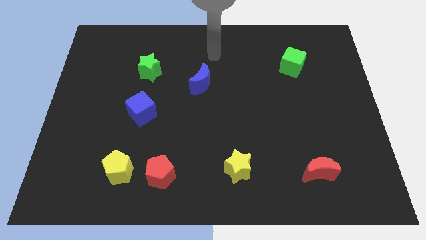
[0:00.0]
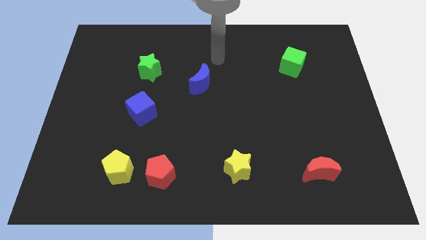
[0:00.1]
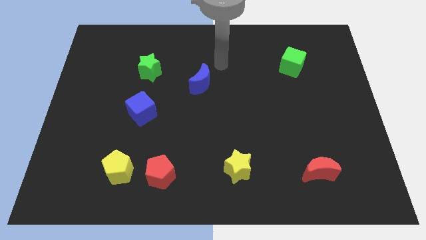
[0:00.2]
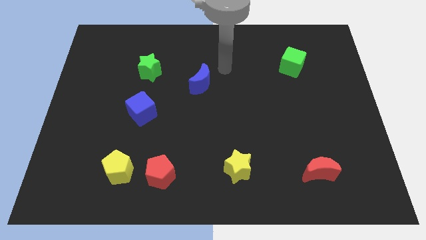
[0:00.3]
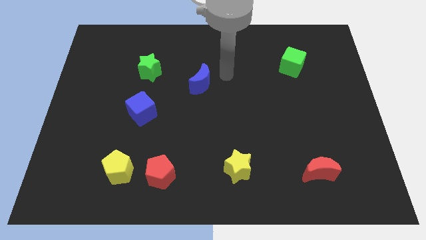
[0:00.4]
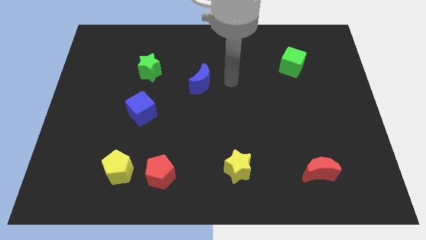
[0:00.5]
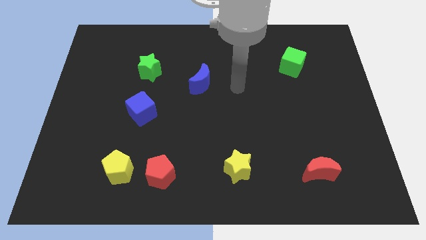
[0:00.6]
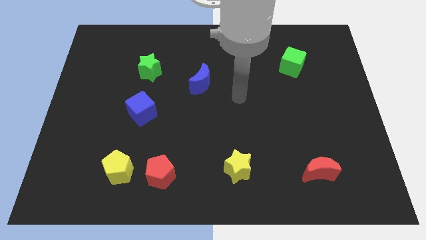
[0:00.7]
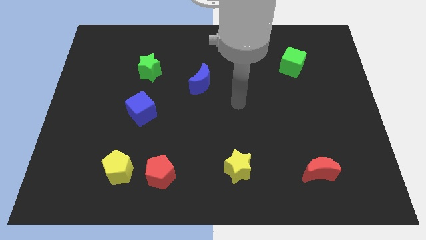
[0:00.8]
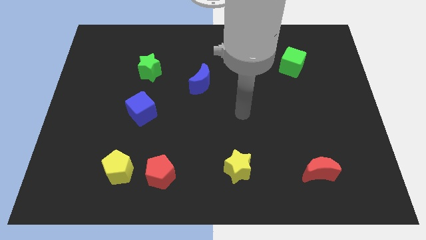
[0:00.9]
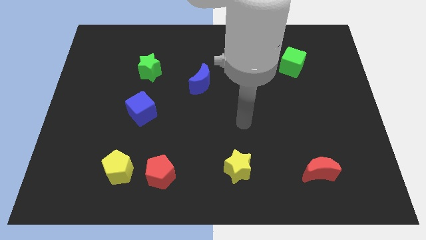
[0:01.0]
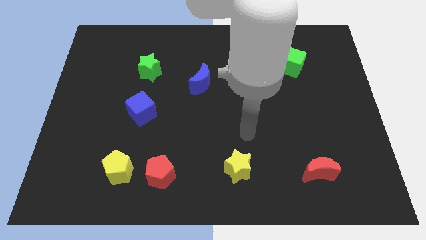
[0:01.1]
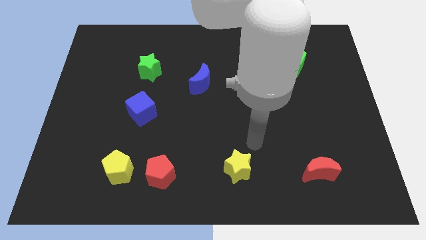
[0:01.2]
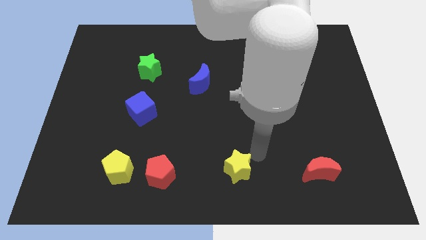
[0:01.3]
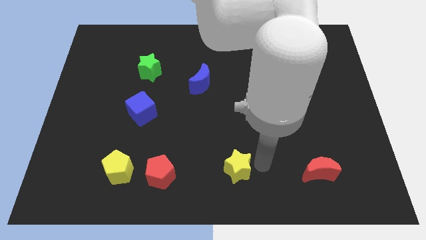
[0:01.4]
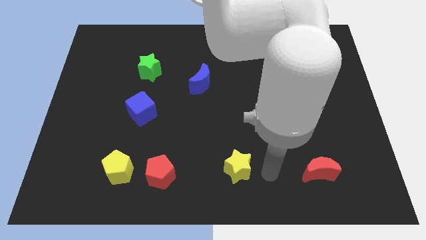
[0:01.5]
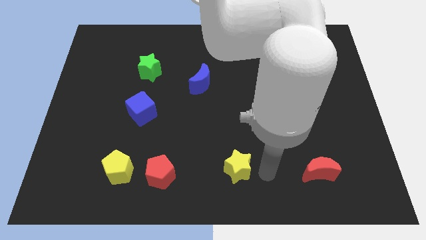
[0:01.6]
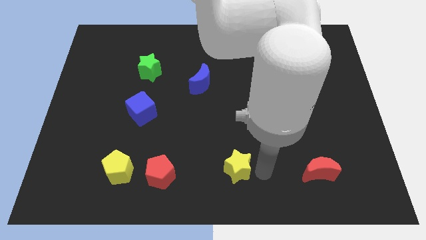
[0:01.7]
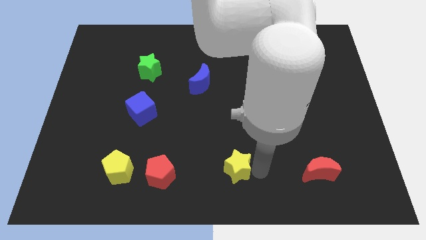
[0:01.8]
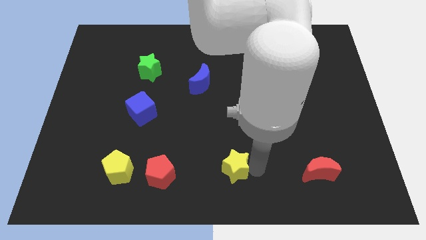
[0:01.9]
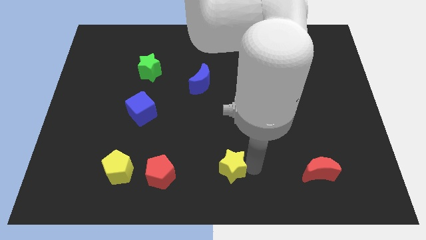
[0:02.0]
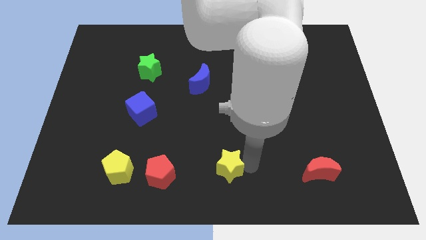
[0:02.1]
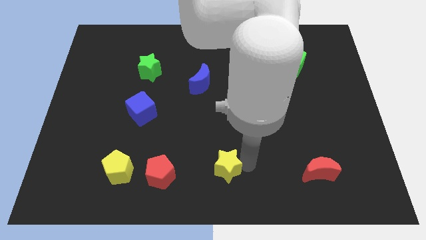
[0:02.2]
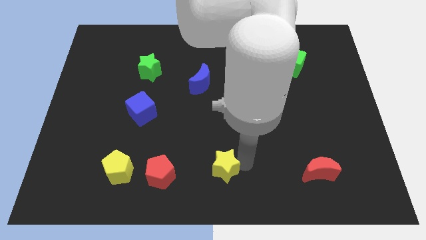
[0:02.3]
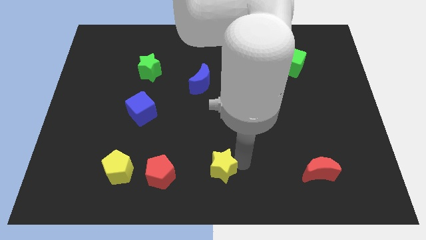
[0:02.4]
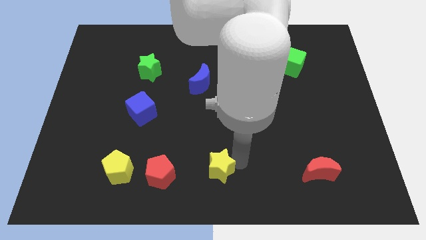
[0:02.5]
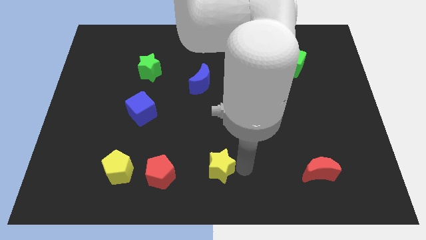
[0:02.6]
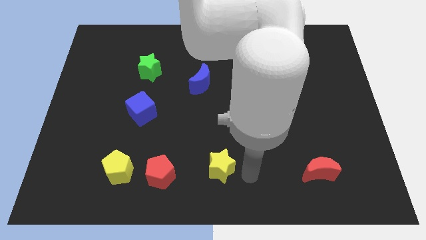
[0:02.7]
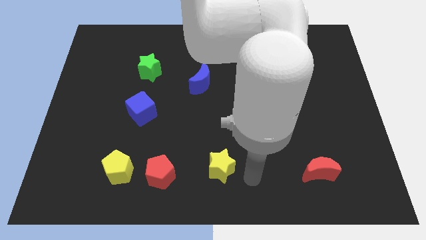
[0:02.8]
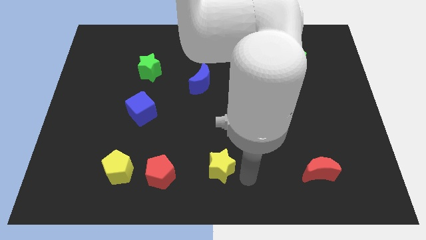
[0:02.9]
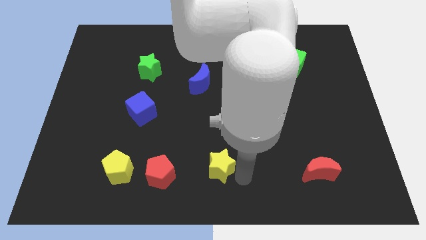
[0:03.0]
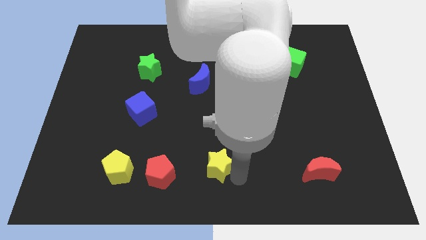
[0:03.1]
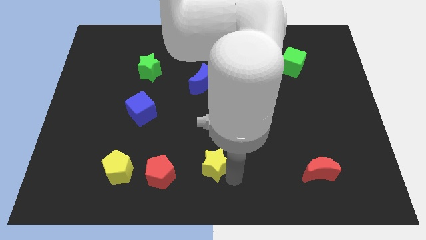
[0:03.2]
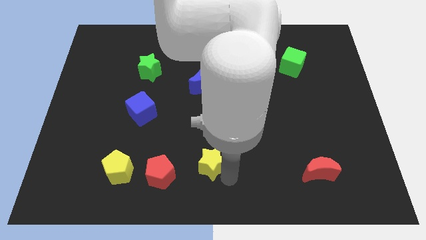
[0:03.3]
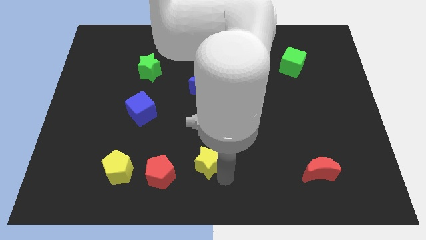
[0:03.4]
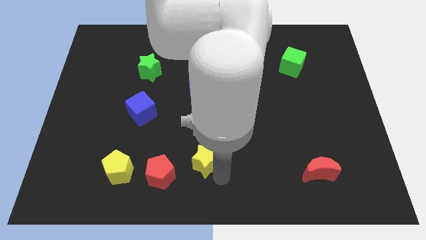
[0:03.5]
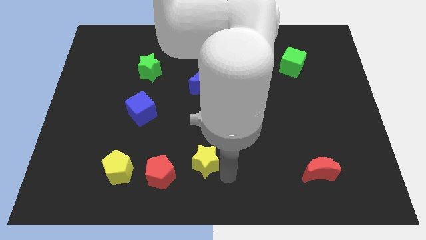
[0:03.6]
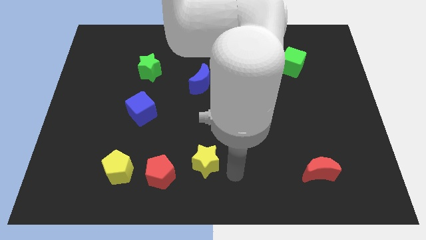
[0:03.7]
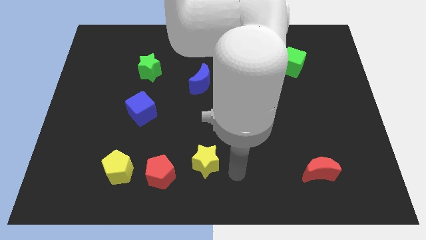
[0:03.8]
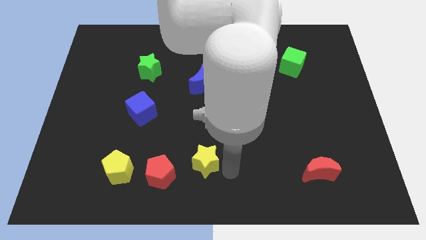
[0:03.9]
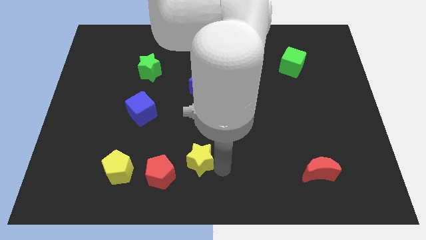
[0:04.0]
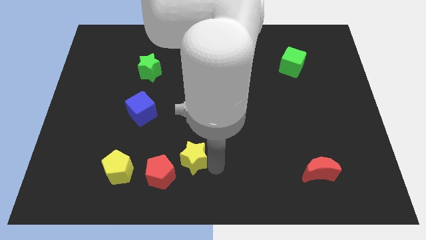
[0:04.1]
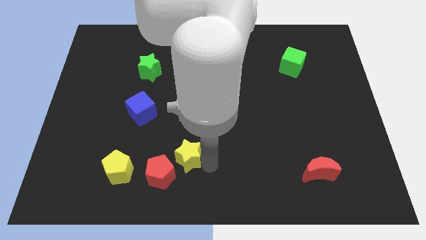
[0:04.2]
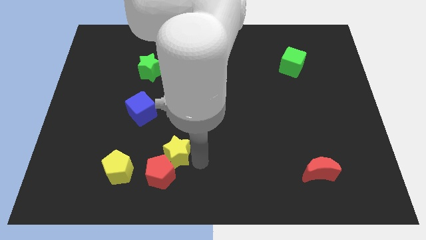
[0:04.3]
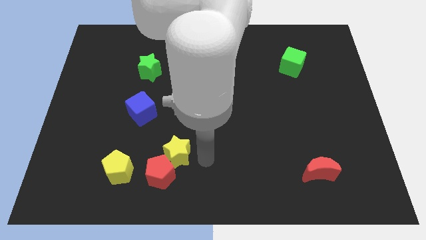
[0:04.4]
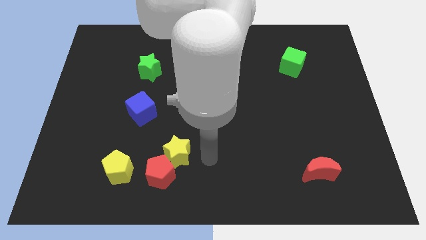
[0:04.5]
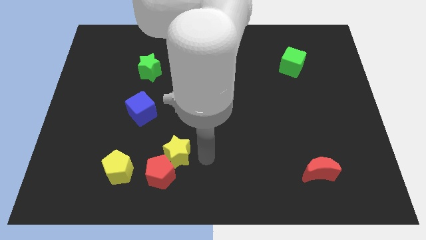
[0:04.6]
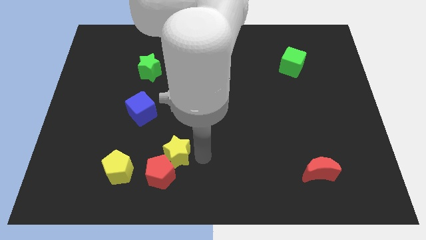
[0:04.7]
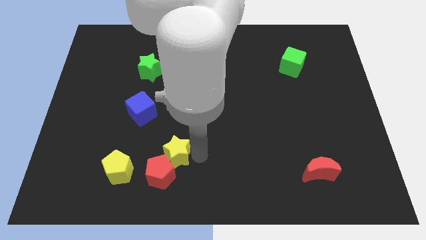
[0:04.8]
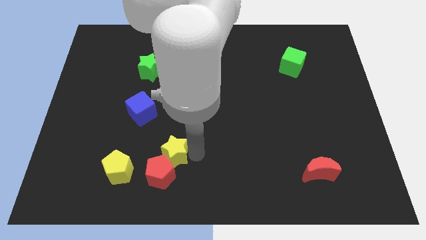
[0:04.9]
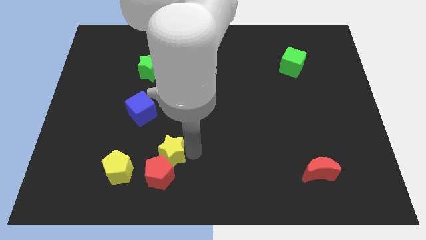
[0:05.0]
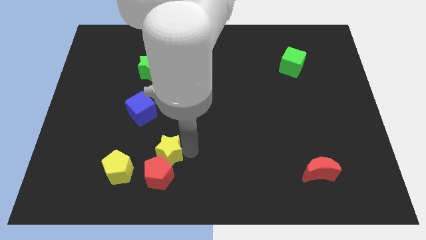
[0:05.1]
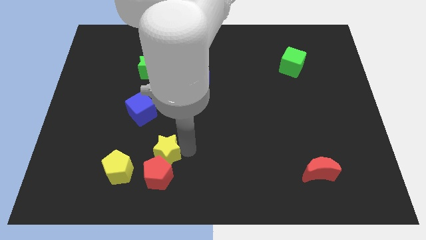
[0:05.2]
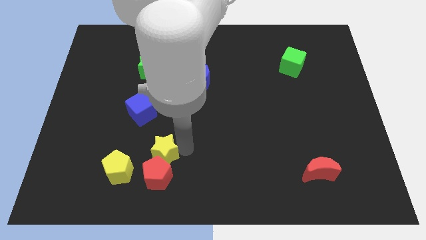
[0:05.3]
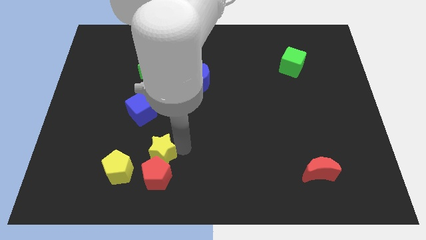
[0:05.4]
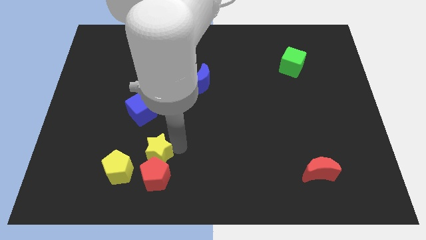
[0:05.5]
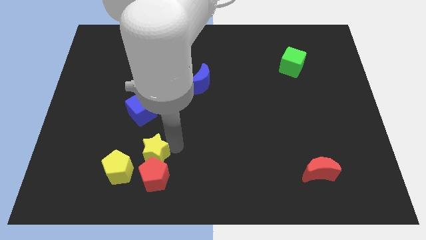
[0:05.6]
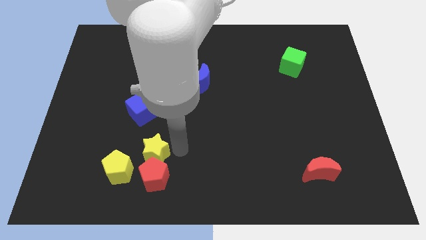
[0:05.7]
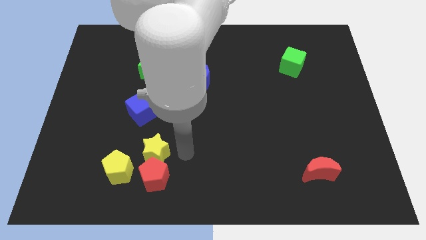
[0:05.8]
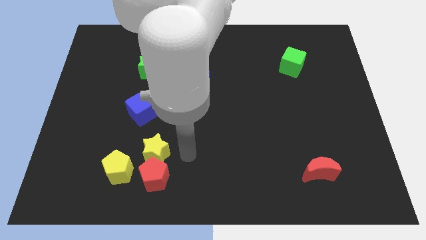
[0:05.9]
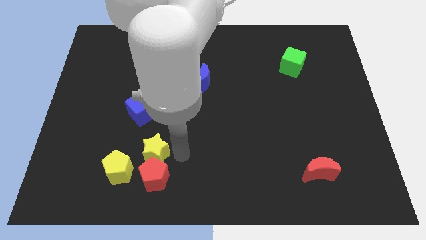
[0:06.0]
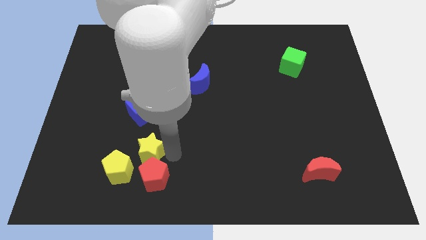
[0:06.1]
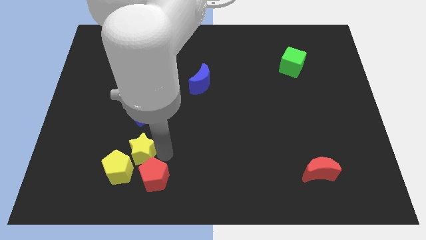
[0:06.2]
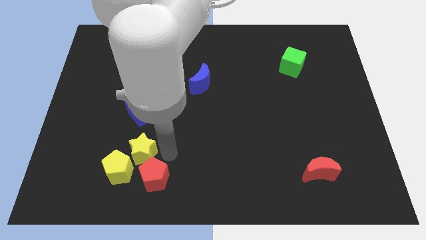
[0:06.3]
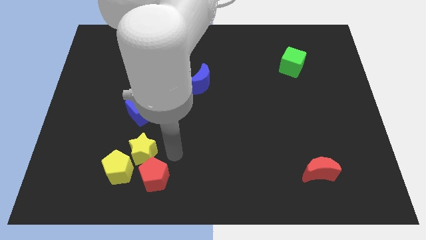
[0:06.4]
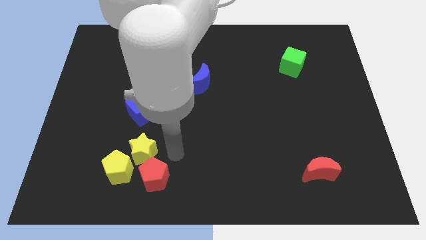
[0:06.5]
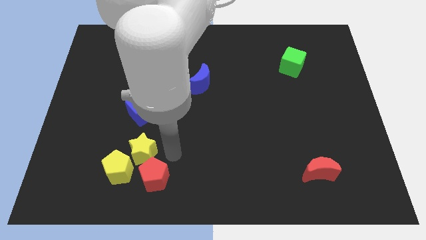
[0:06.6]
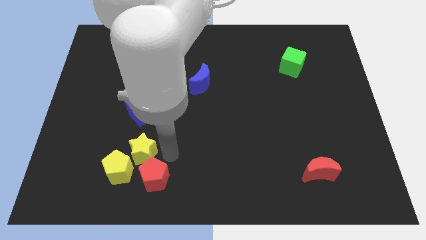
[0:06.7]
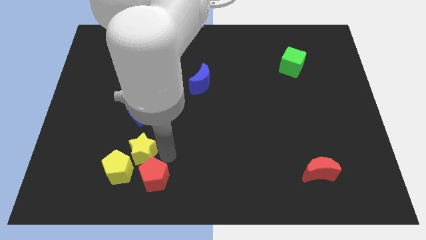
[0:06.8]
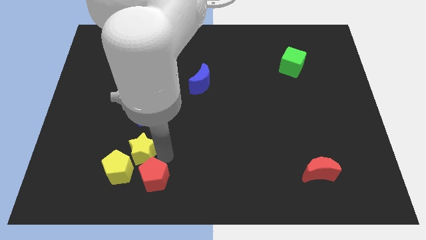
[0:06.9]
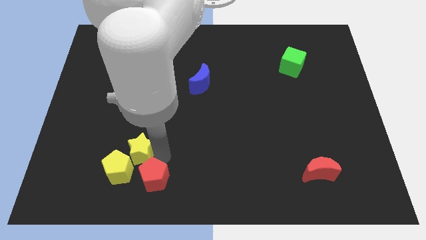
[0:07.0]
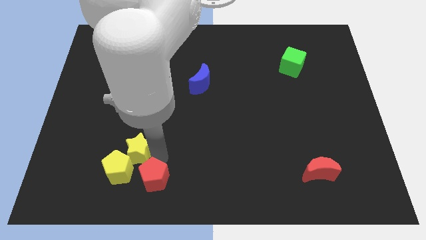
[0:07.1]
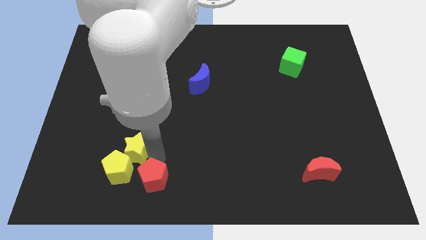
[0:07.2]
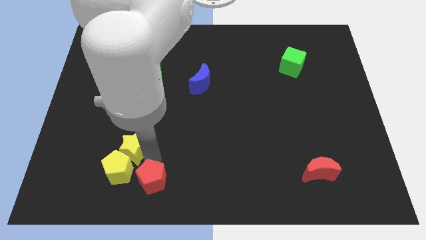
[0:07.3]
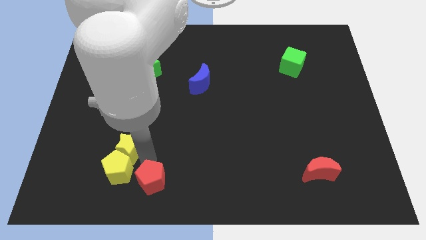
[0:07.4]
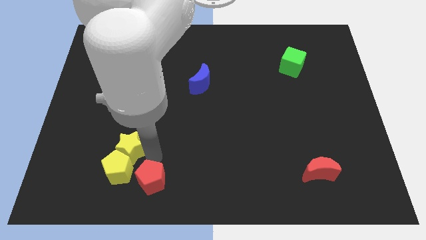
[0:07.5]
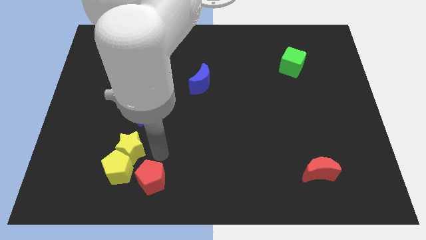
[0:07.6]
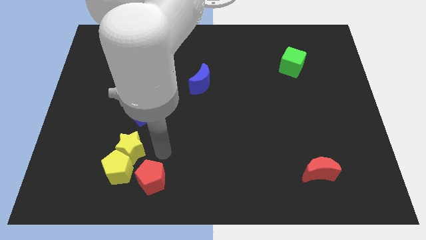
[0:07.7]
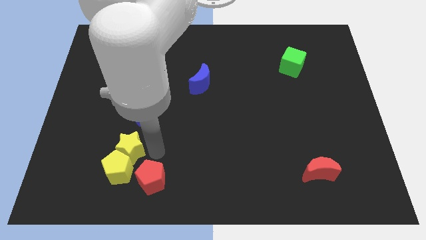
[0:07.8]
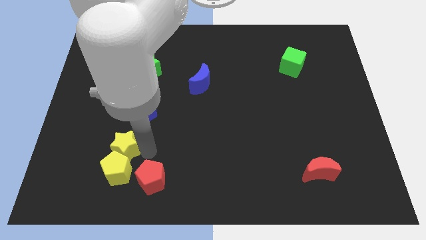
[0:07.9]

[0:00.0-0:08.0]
push the yellow star to the top left side of the yellow pentagon
